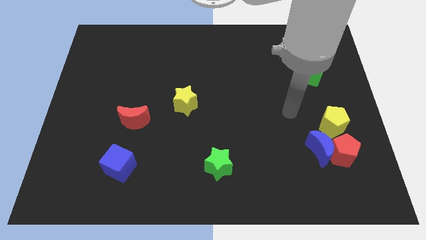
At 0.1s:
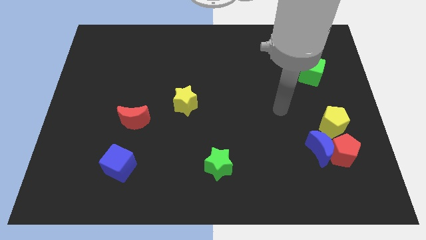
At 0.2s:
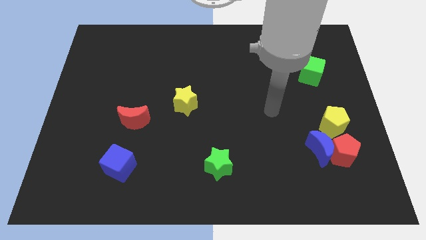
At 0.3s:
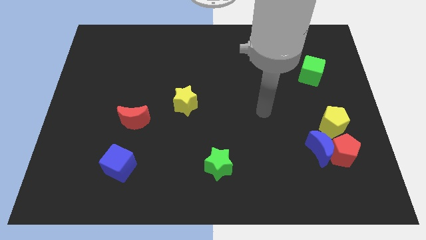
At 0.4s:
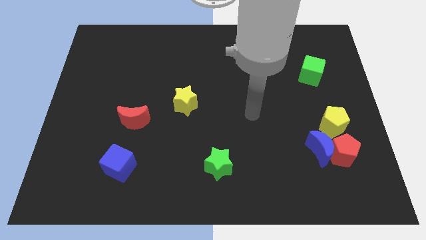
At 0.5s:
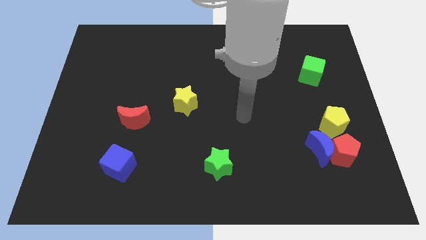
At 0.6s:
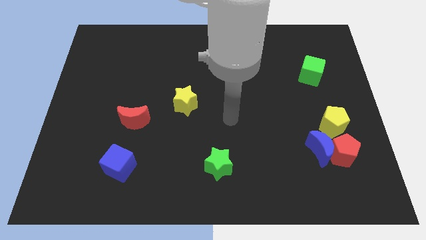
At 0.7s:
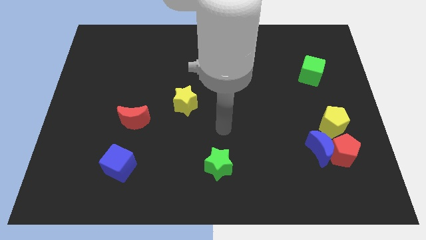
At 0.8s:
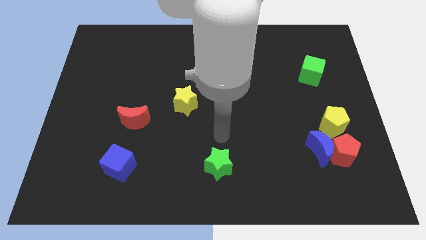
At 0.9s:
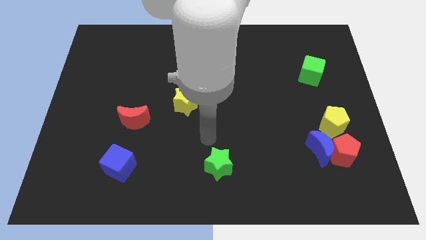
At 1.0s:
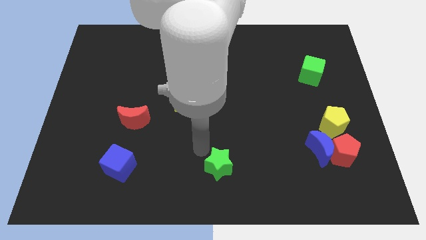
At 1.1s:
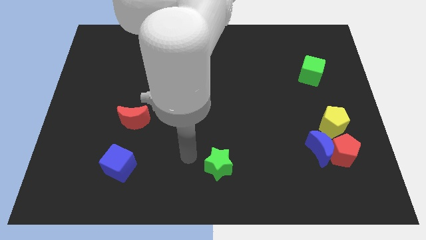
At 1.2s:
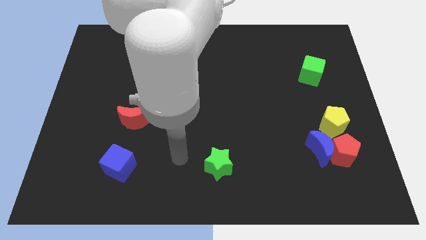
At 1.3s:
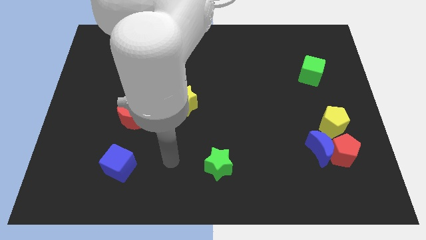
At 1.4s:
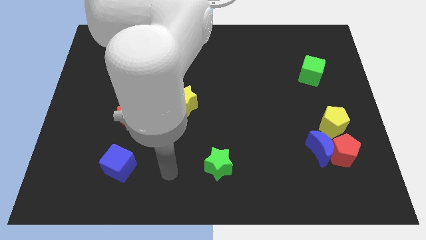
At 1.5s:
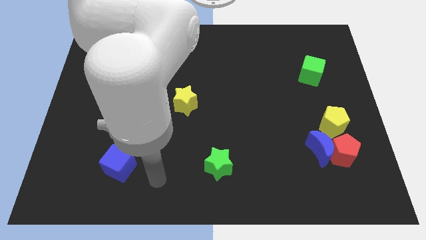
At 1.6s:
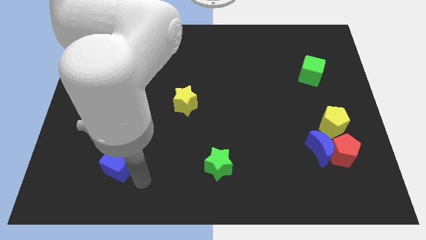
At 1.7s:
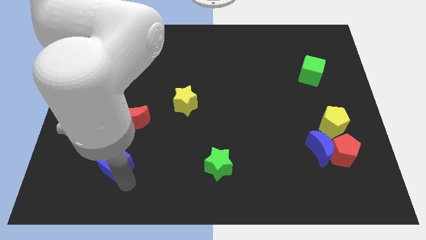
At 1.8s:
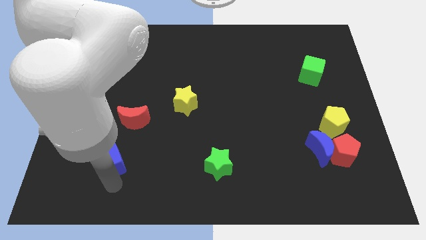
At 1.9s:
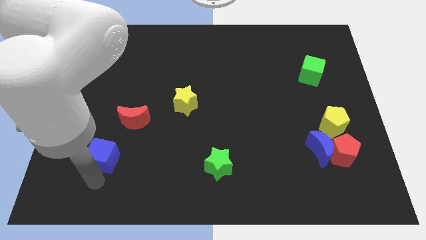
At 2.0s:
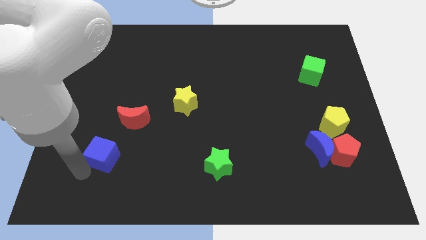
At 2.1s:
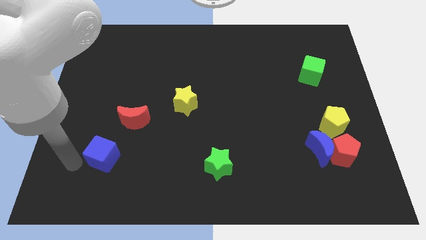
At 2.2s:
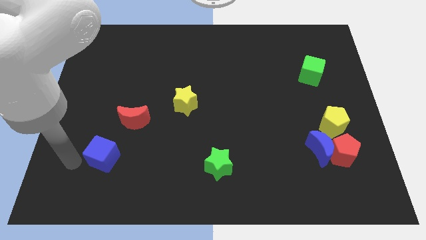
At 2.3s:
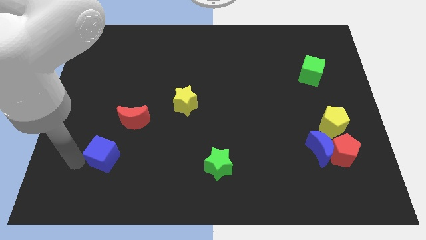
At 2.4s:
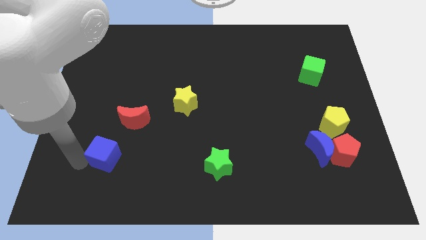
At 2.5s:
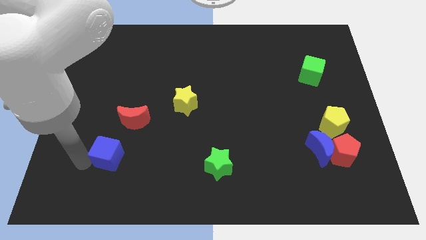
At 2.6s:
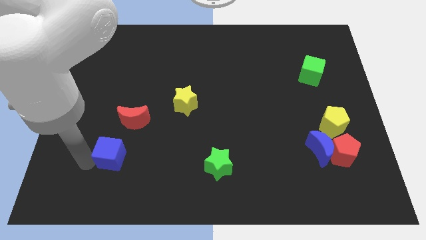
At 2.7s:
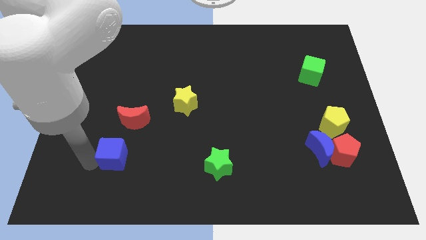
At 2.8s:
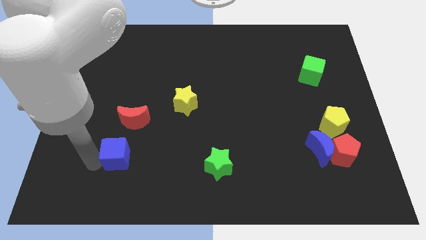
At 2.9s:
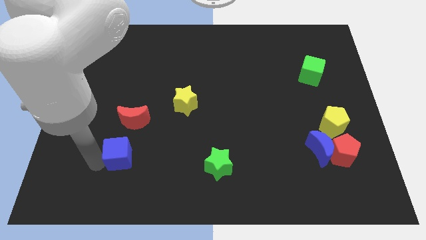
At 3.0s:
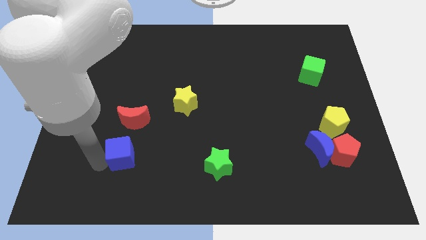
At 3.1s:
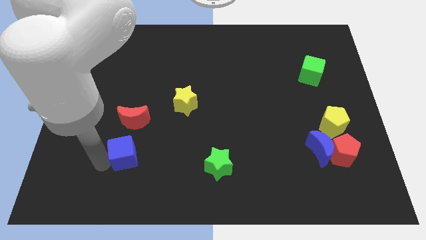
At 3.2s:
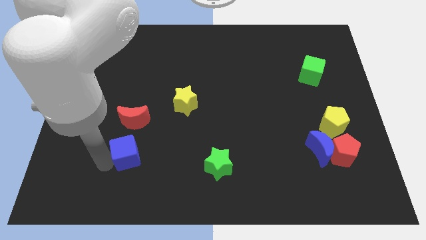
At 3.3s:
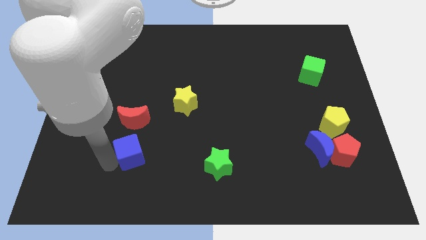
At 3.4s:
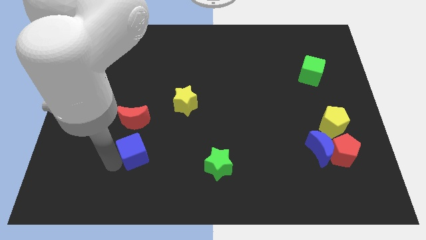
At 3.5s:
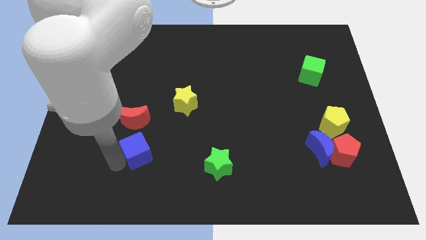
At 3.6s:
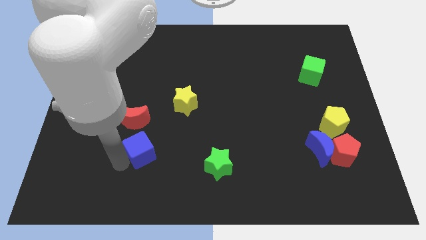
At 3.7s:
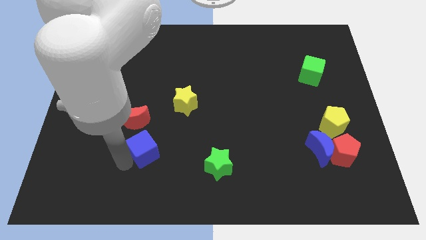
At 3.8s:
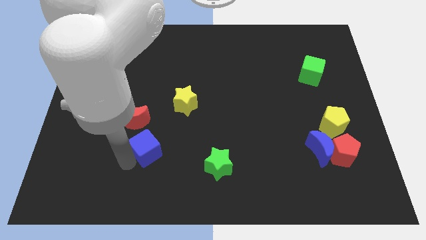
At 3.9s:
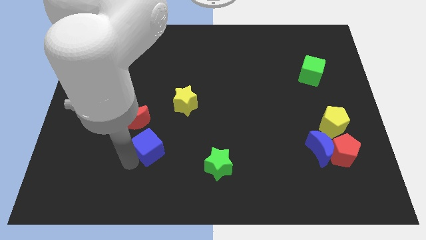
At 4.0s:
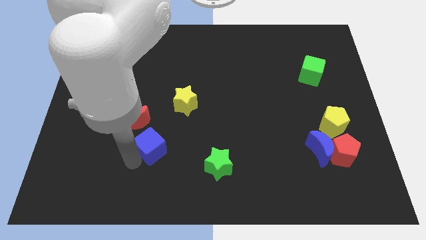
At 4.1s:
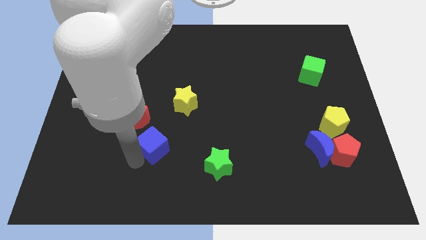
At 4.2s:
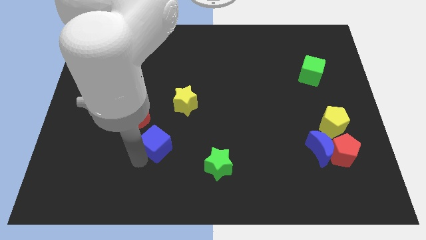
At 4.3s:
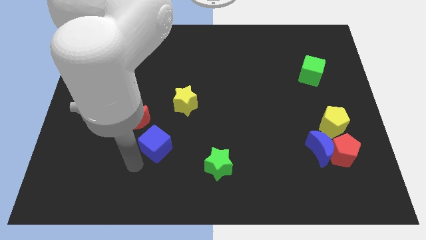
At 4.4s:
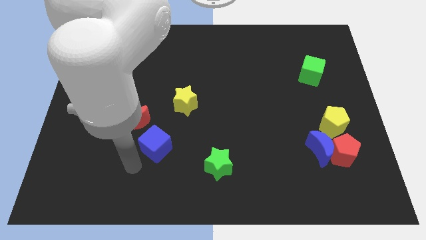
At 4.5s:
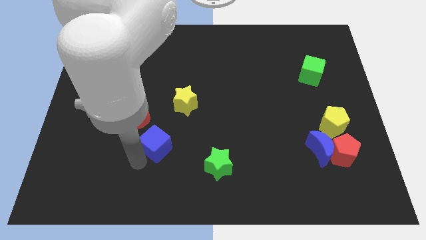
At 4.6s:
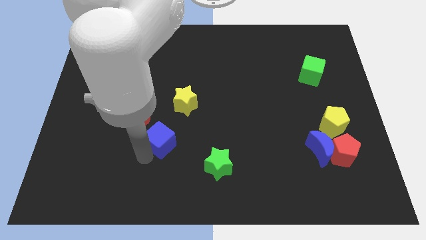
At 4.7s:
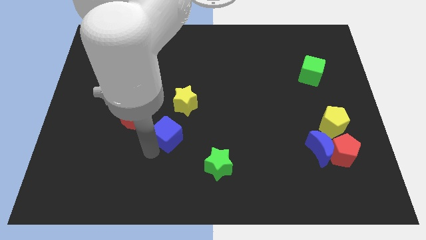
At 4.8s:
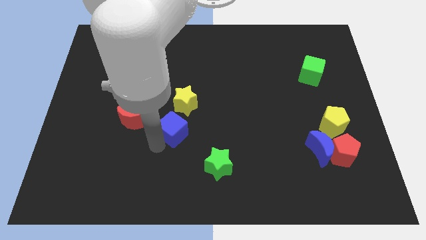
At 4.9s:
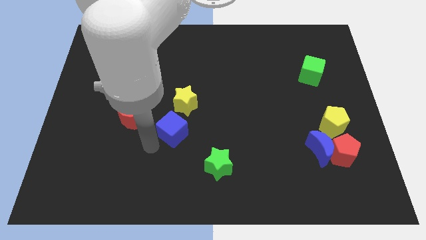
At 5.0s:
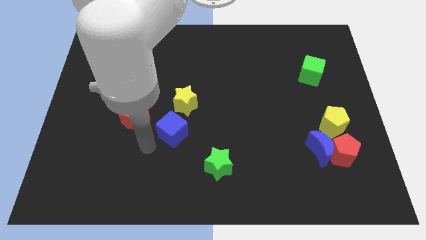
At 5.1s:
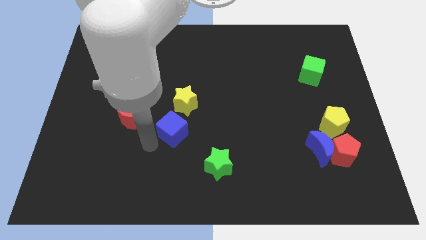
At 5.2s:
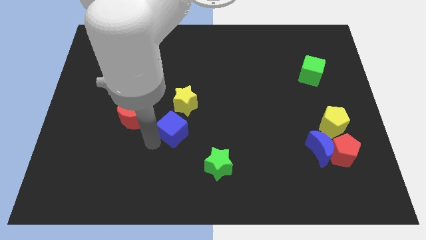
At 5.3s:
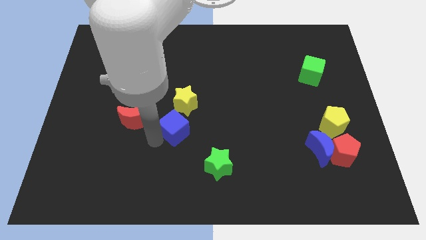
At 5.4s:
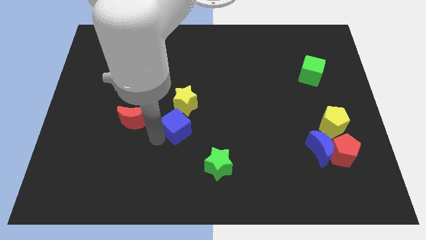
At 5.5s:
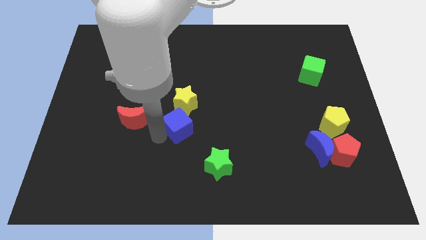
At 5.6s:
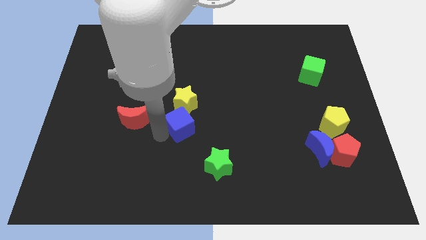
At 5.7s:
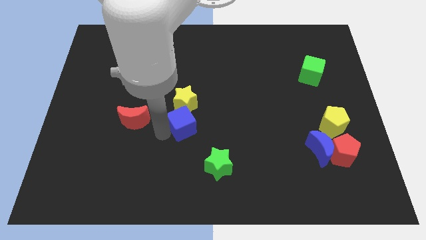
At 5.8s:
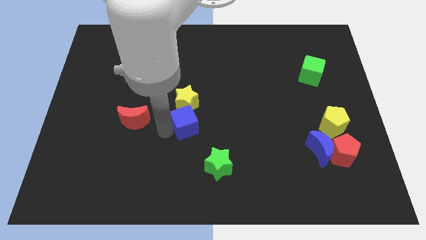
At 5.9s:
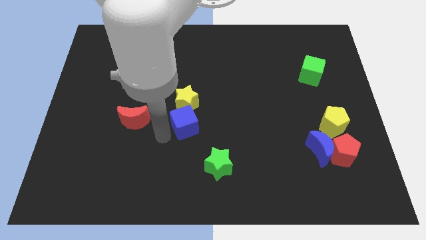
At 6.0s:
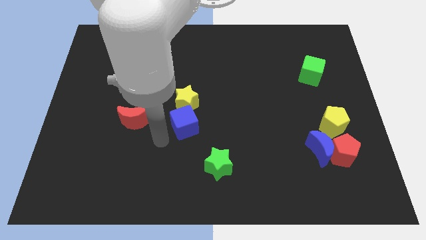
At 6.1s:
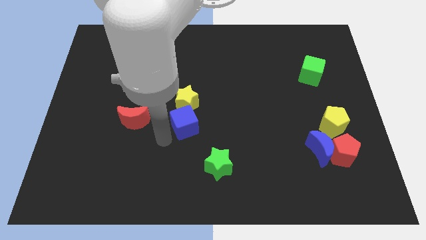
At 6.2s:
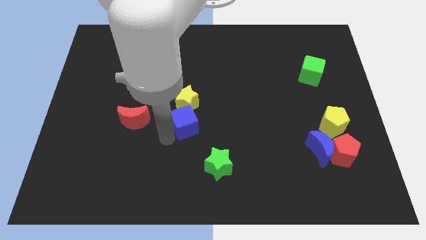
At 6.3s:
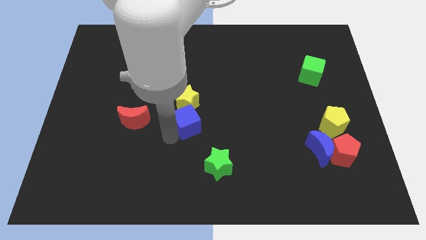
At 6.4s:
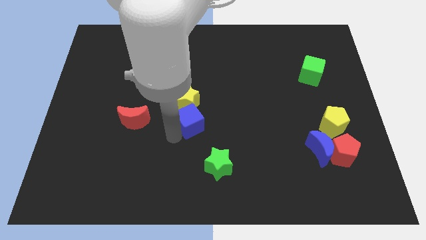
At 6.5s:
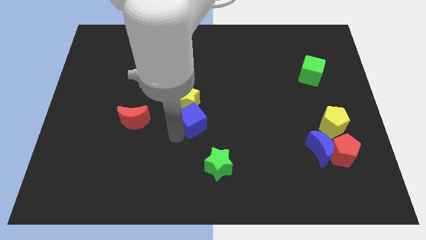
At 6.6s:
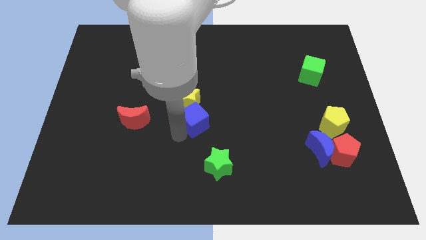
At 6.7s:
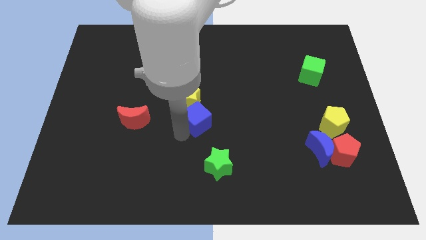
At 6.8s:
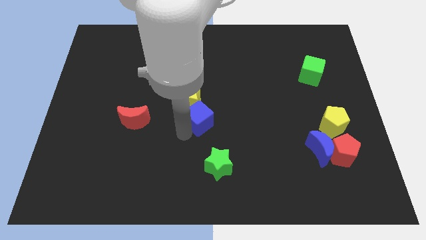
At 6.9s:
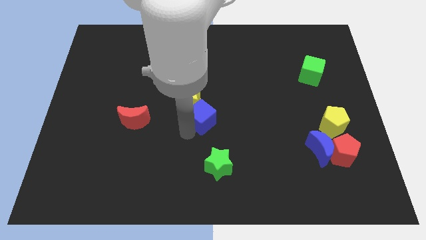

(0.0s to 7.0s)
move the blue cube up and right diagonally

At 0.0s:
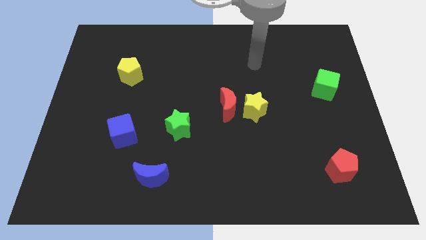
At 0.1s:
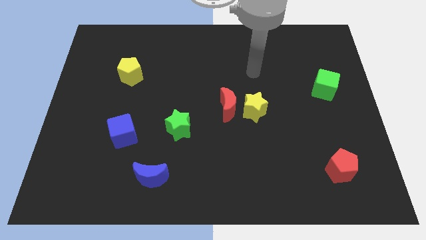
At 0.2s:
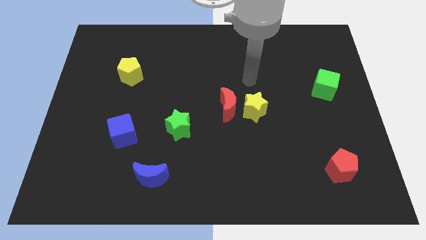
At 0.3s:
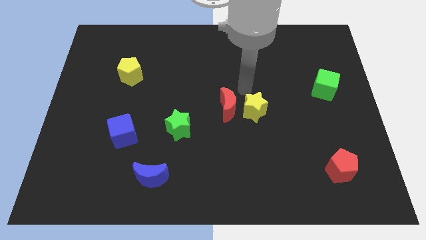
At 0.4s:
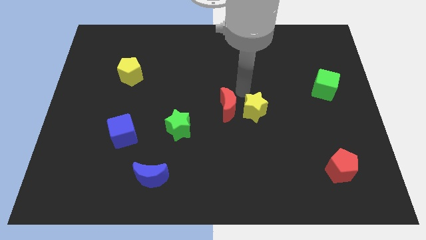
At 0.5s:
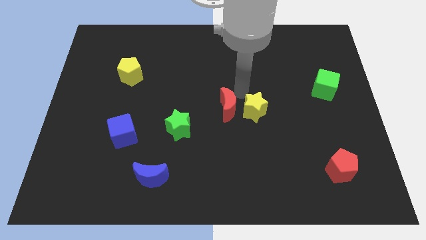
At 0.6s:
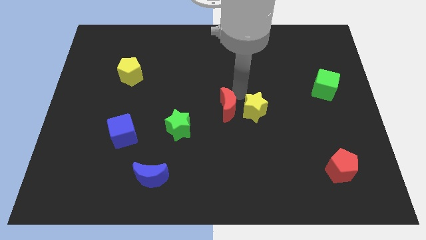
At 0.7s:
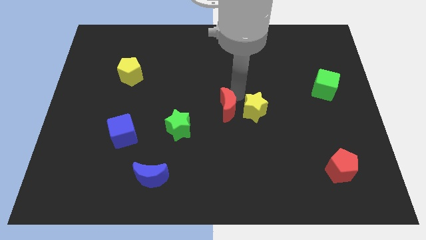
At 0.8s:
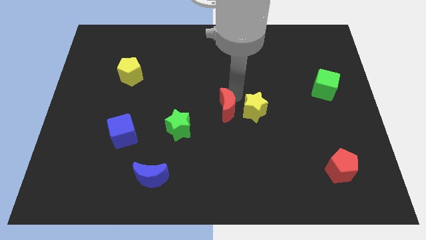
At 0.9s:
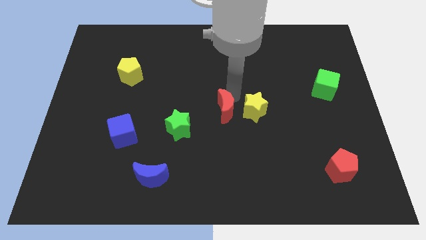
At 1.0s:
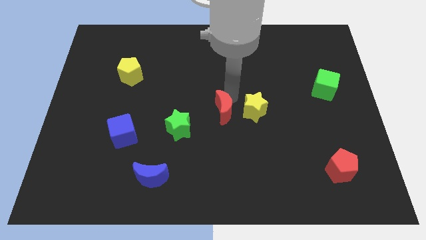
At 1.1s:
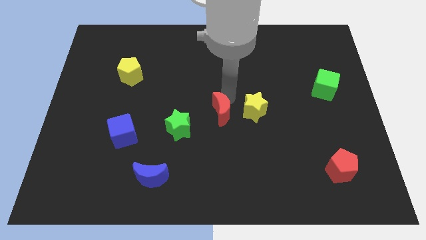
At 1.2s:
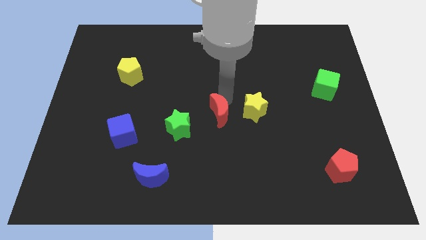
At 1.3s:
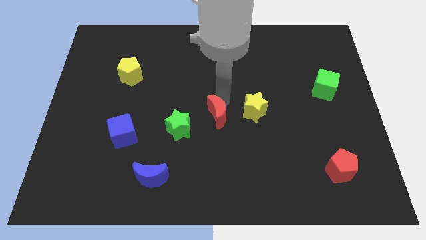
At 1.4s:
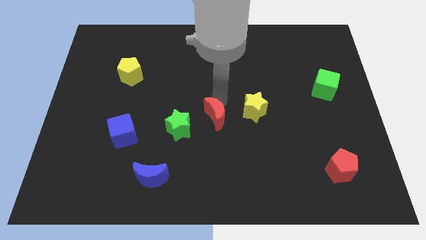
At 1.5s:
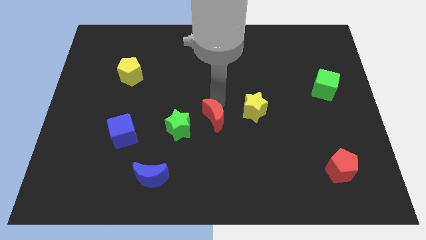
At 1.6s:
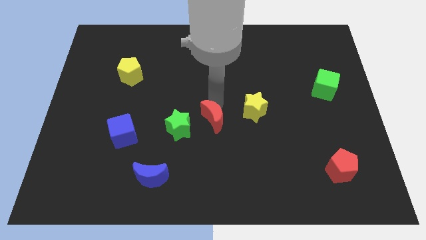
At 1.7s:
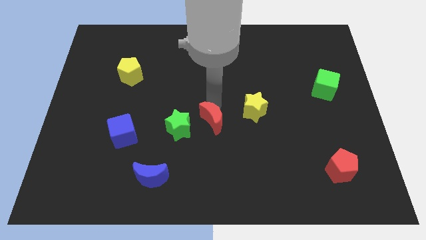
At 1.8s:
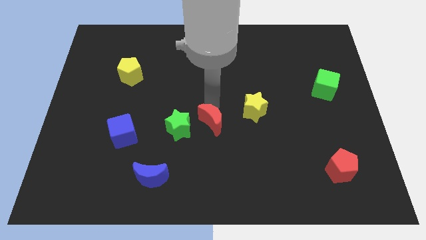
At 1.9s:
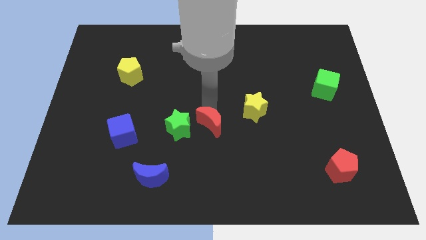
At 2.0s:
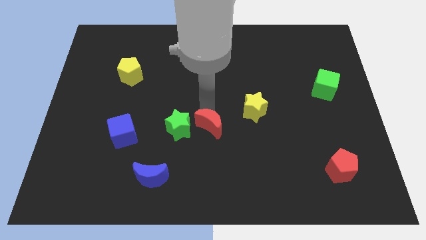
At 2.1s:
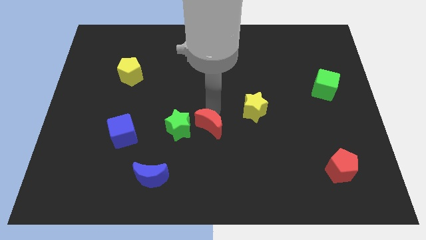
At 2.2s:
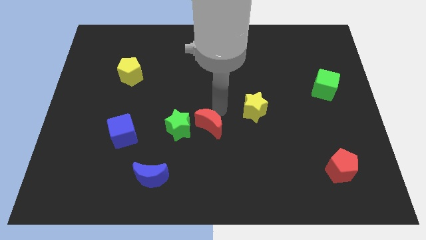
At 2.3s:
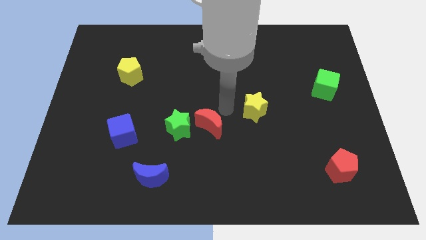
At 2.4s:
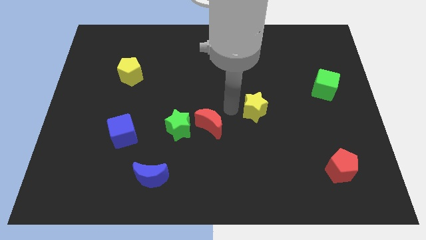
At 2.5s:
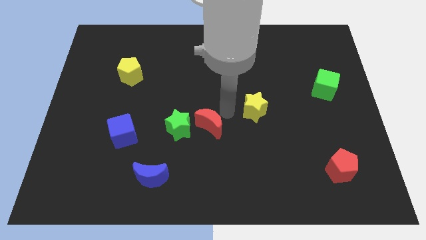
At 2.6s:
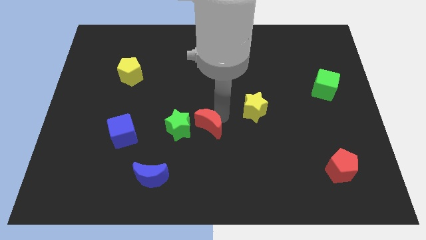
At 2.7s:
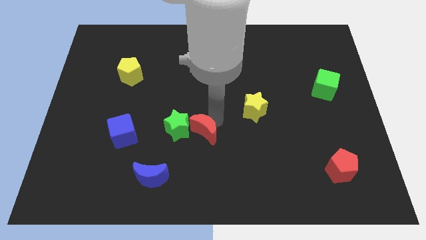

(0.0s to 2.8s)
slightly slide the red moon downwards and left
